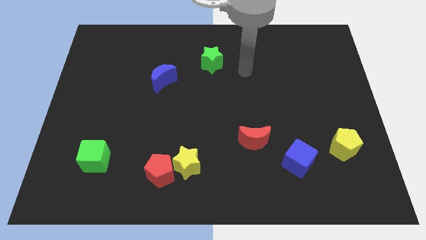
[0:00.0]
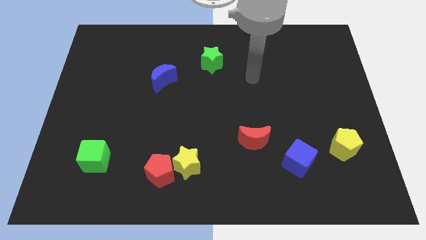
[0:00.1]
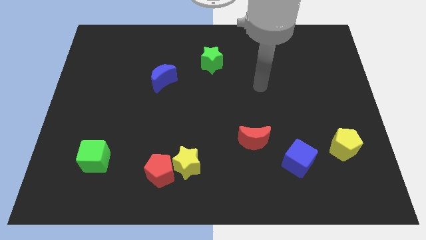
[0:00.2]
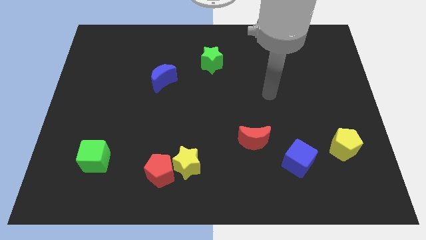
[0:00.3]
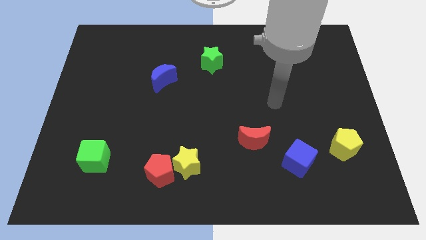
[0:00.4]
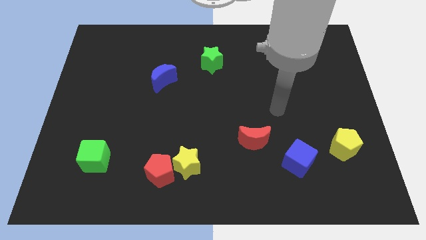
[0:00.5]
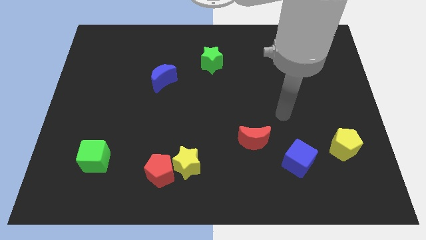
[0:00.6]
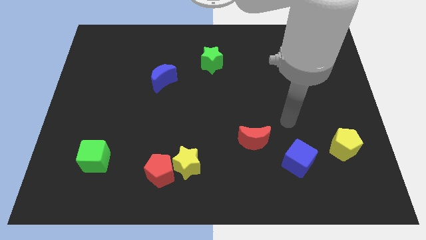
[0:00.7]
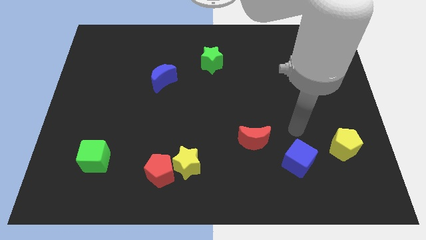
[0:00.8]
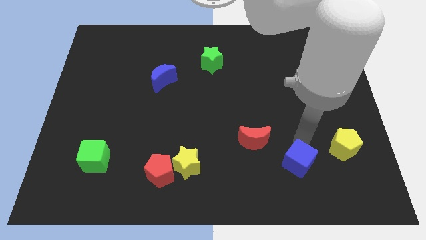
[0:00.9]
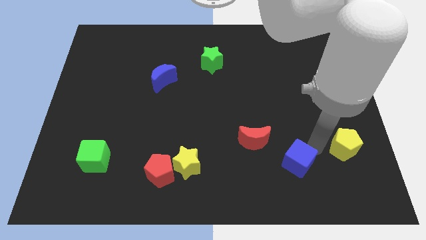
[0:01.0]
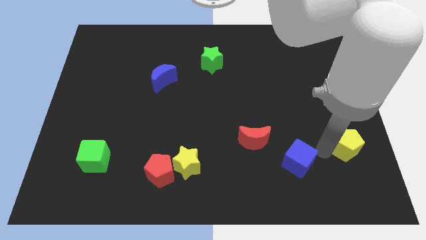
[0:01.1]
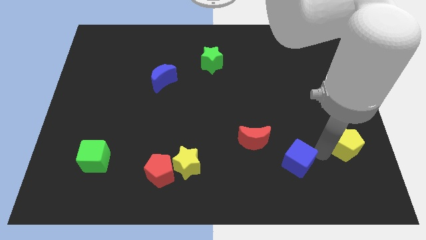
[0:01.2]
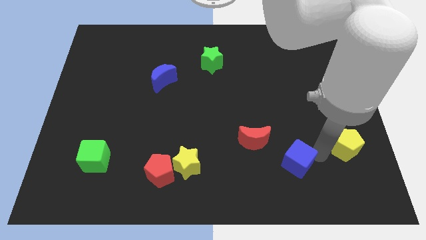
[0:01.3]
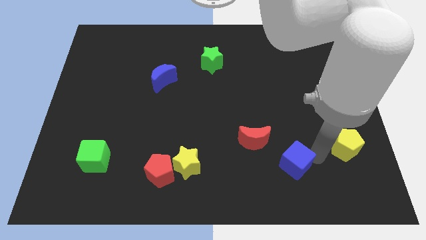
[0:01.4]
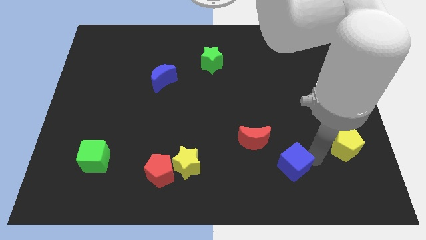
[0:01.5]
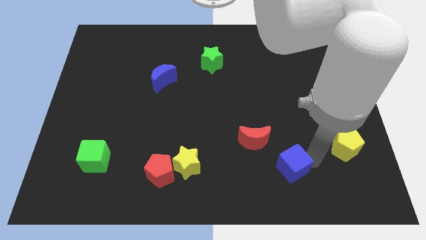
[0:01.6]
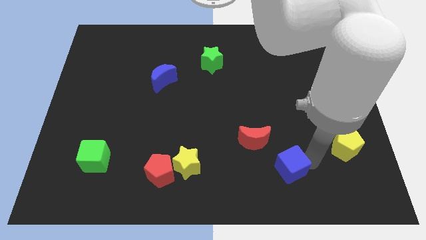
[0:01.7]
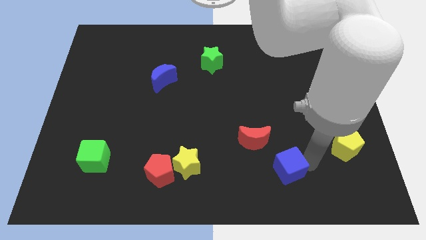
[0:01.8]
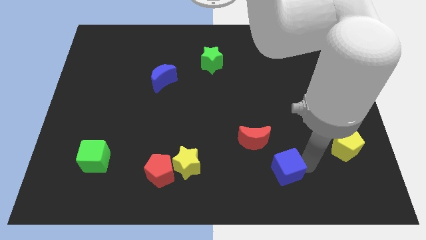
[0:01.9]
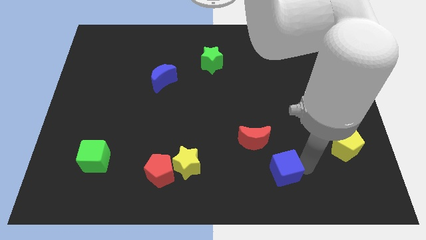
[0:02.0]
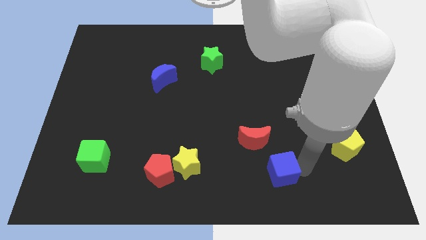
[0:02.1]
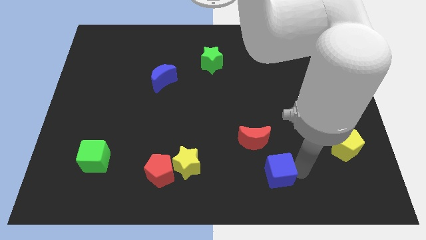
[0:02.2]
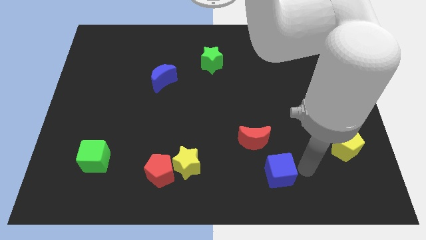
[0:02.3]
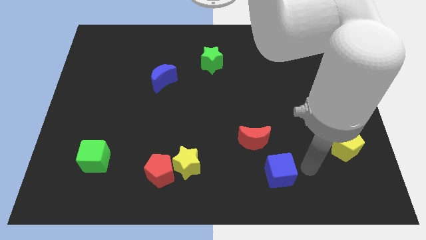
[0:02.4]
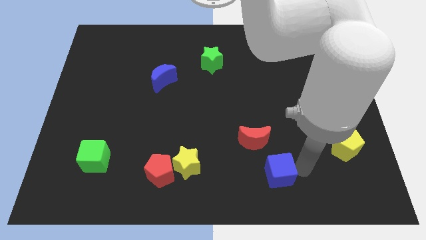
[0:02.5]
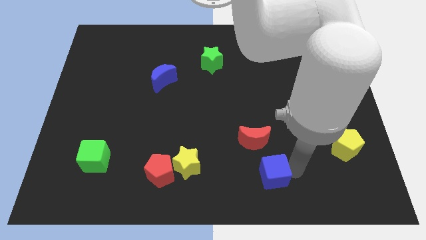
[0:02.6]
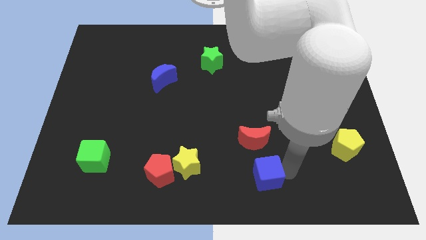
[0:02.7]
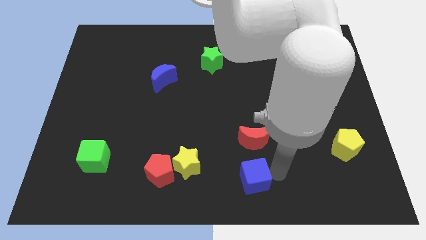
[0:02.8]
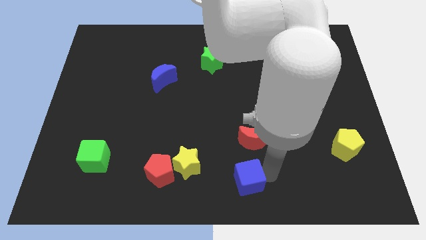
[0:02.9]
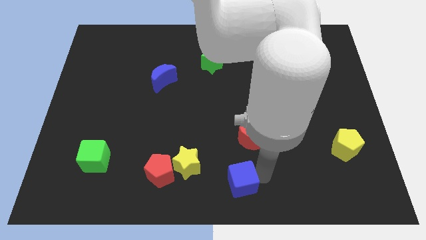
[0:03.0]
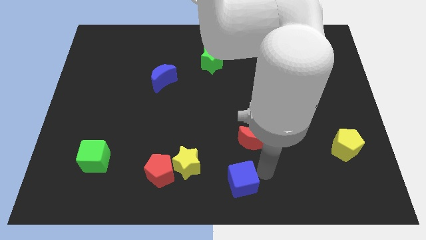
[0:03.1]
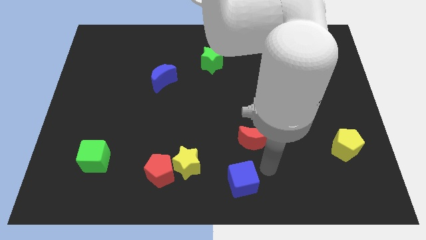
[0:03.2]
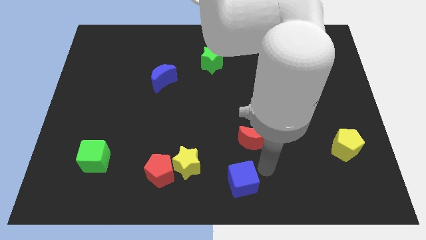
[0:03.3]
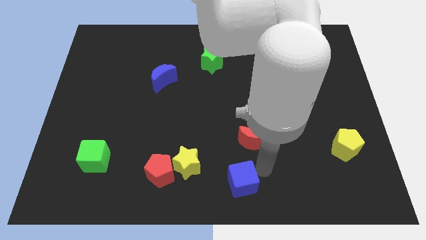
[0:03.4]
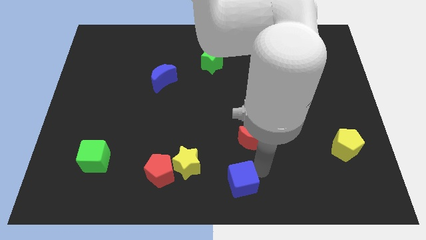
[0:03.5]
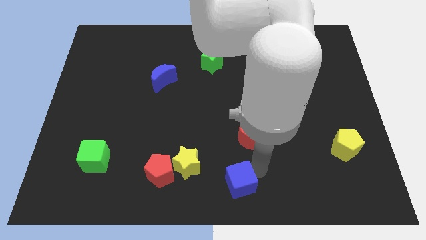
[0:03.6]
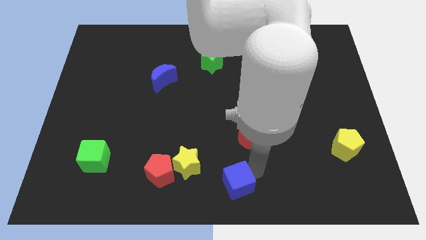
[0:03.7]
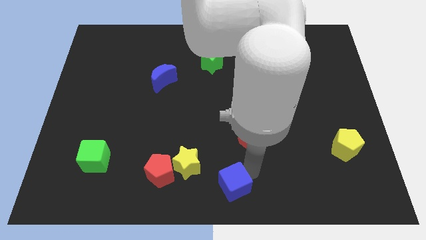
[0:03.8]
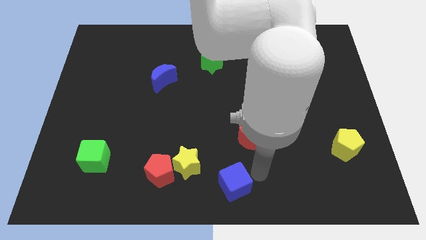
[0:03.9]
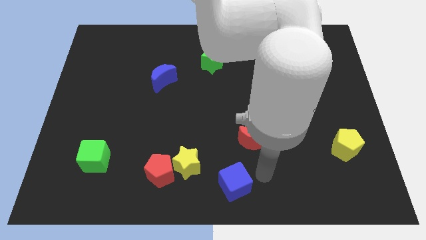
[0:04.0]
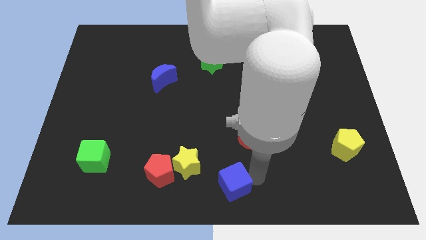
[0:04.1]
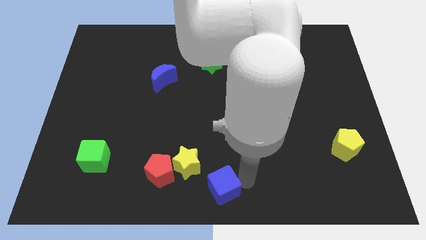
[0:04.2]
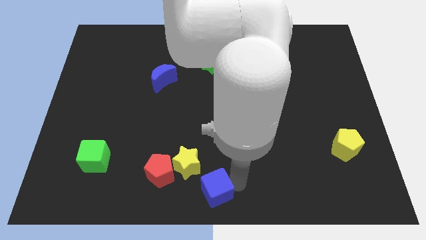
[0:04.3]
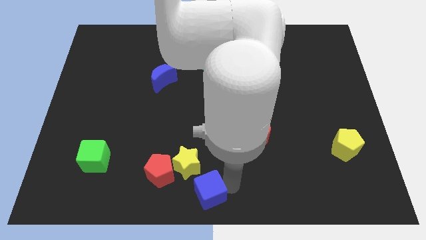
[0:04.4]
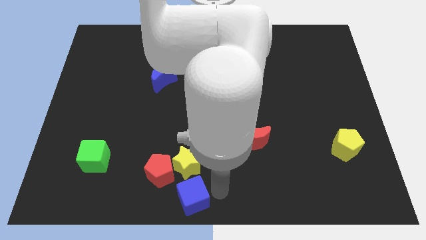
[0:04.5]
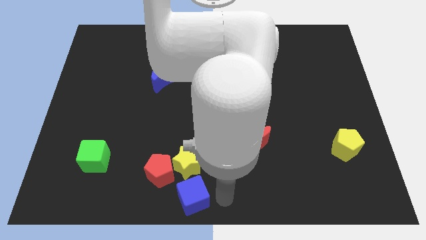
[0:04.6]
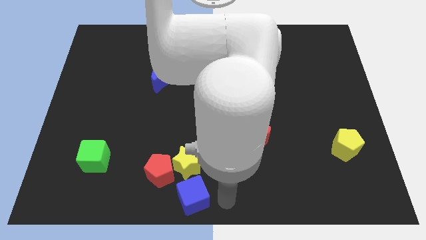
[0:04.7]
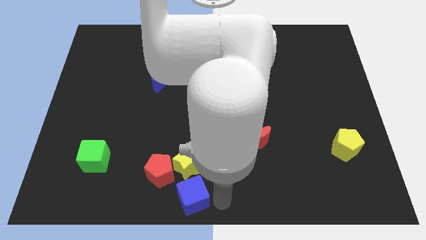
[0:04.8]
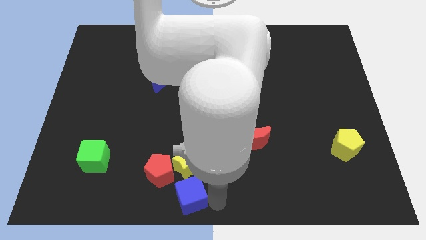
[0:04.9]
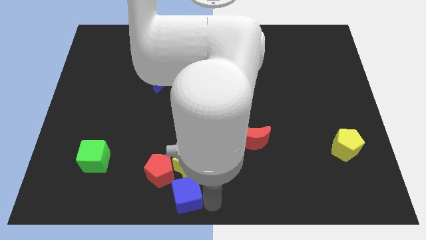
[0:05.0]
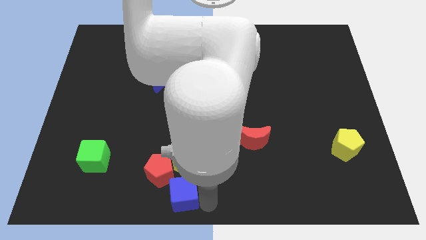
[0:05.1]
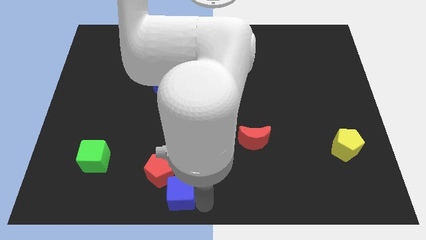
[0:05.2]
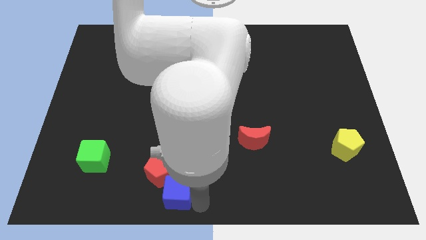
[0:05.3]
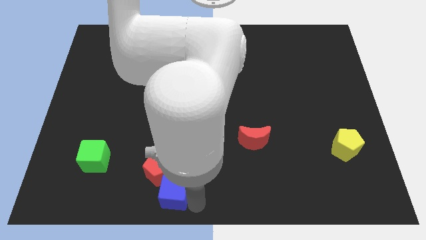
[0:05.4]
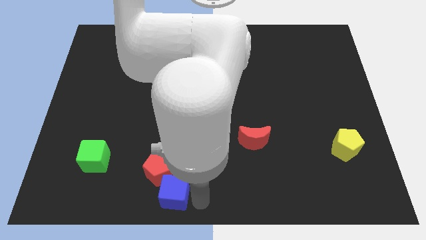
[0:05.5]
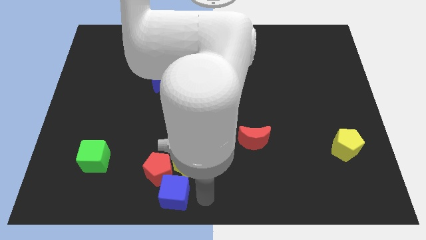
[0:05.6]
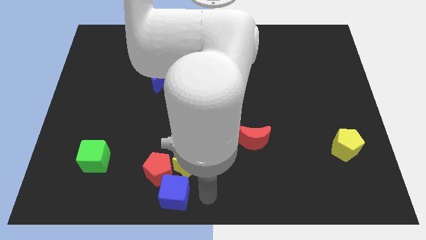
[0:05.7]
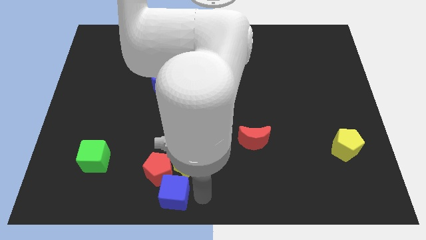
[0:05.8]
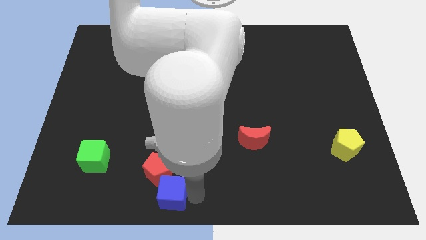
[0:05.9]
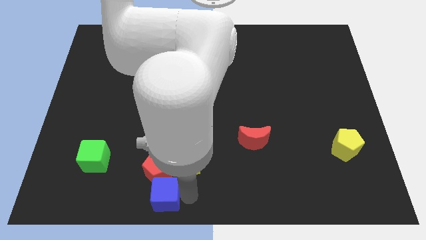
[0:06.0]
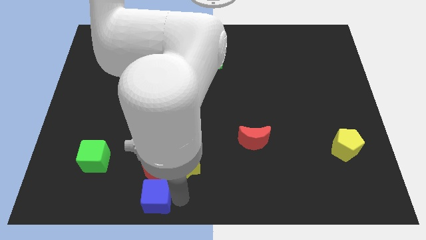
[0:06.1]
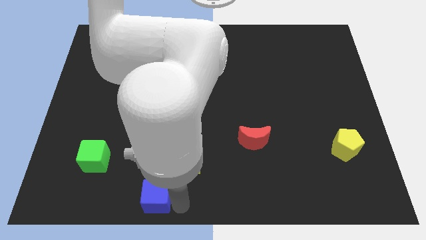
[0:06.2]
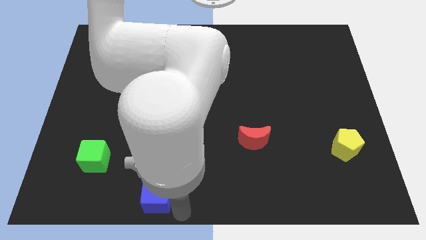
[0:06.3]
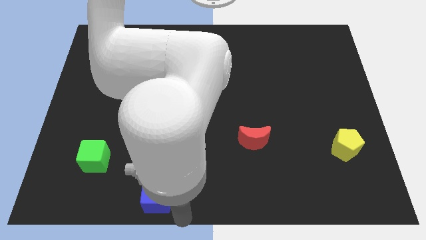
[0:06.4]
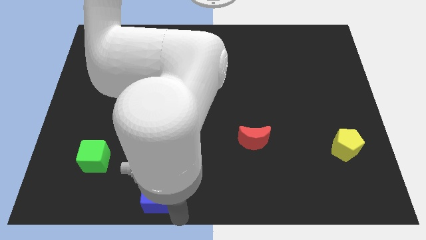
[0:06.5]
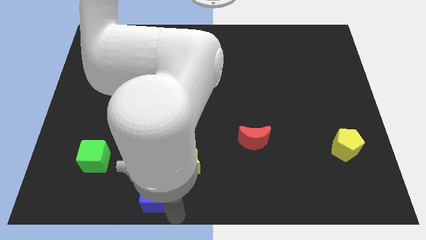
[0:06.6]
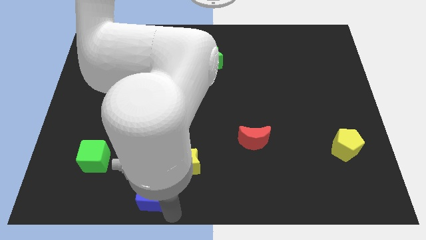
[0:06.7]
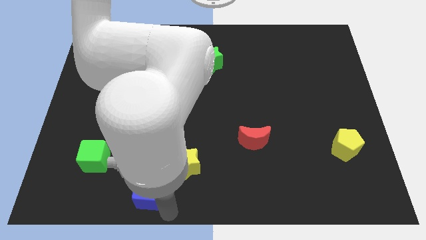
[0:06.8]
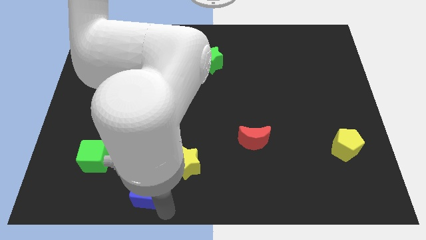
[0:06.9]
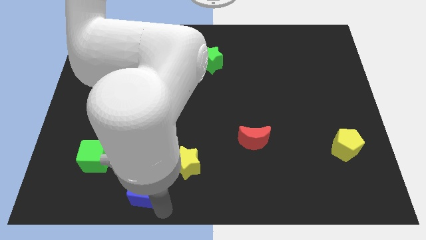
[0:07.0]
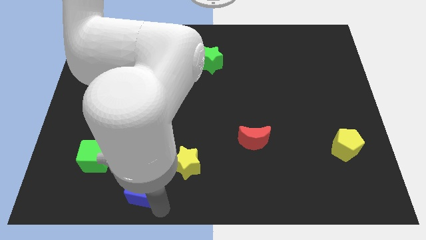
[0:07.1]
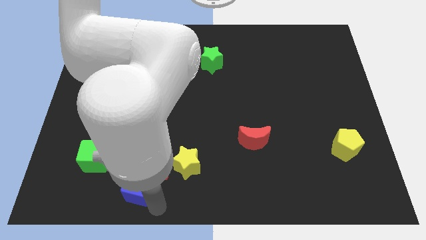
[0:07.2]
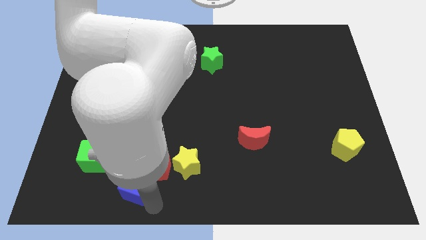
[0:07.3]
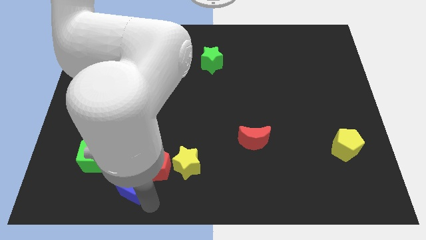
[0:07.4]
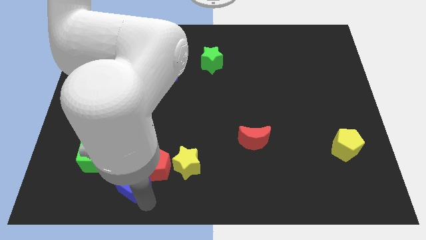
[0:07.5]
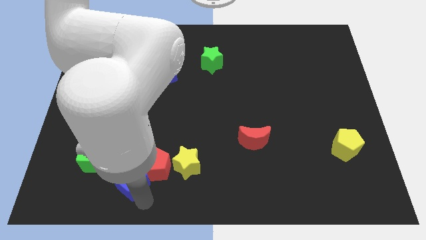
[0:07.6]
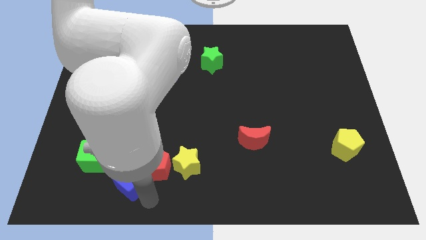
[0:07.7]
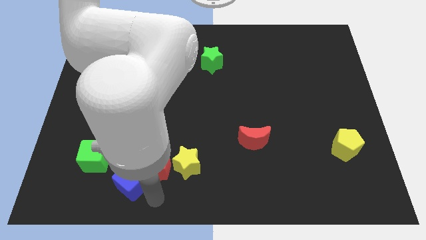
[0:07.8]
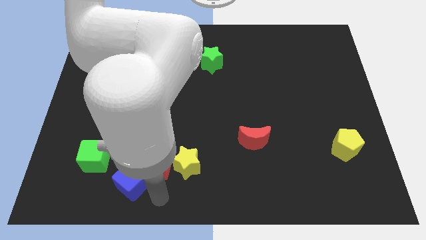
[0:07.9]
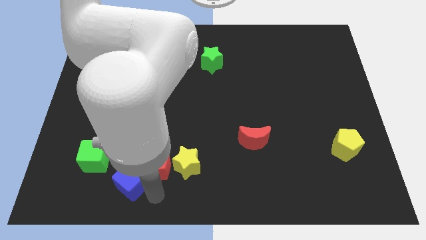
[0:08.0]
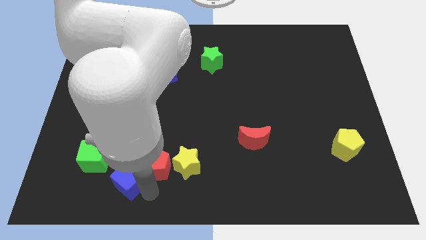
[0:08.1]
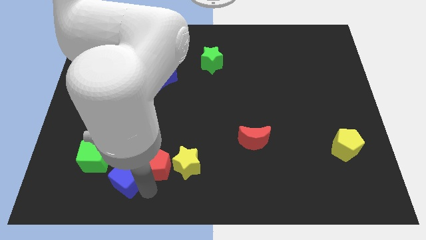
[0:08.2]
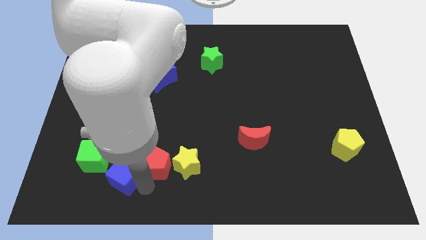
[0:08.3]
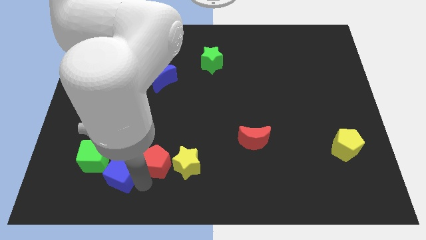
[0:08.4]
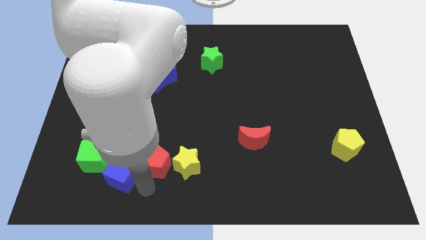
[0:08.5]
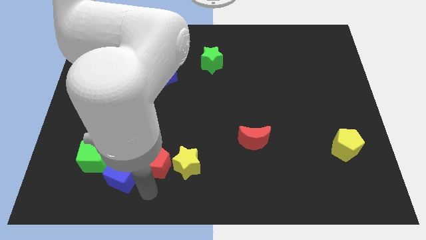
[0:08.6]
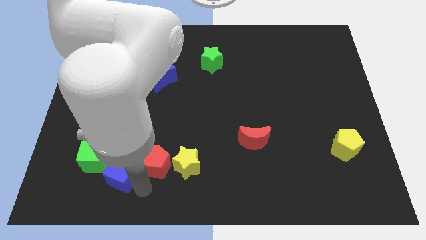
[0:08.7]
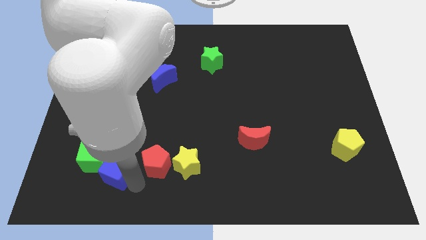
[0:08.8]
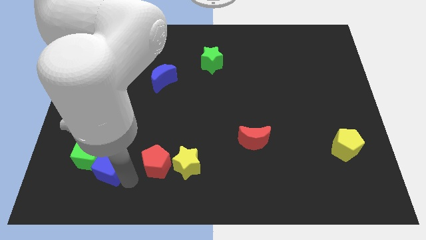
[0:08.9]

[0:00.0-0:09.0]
push the blue cube towards the green cube
